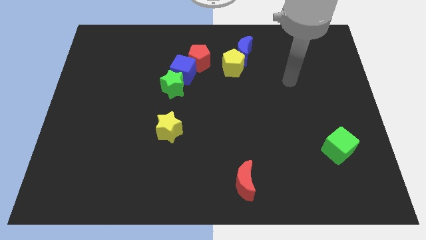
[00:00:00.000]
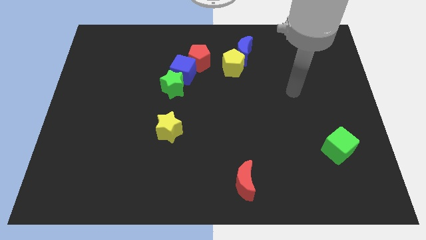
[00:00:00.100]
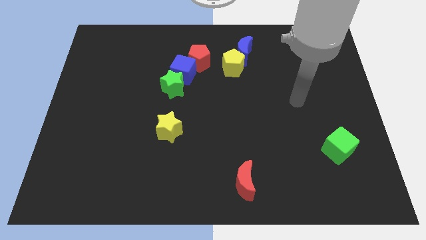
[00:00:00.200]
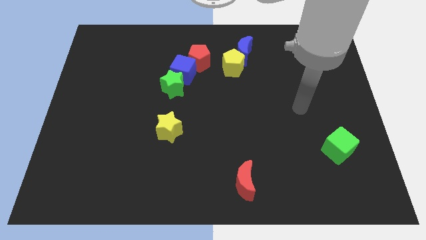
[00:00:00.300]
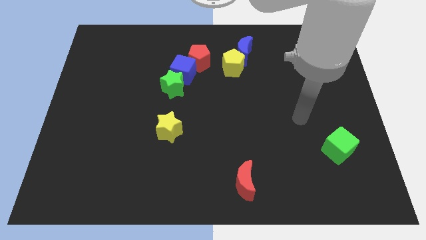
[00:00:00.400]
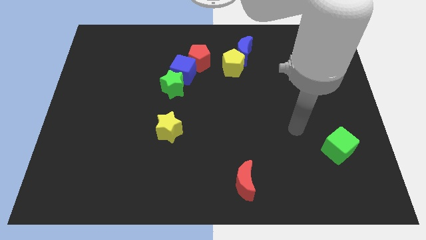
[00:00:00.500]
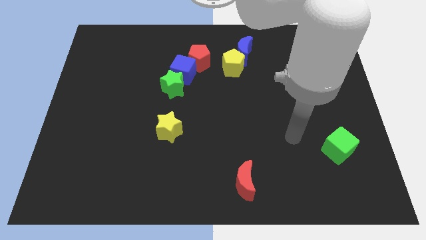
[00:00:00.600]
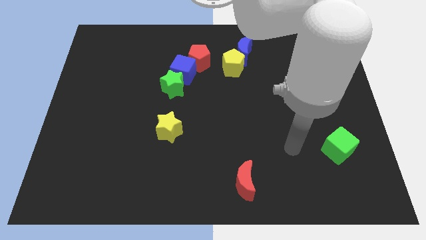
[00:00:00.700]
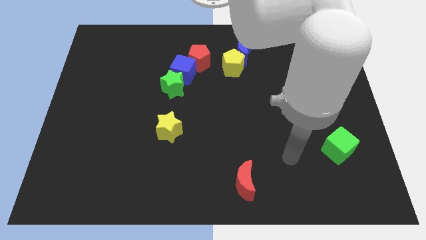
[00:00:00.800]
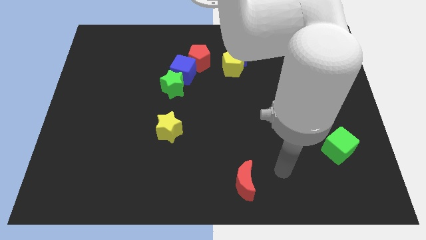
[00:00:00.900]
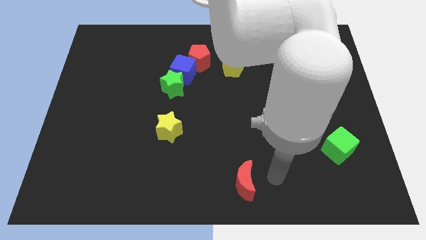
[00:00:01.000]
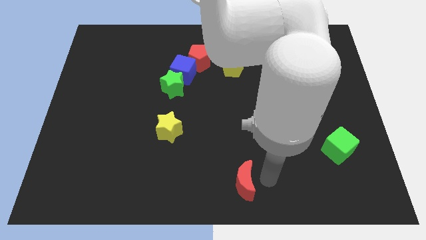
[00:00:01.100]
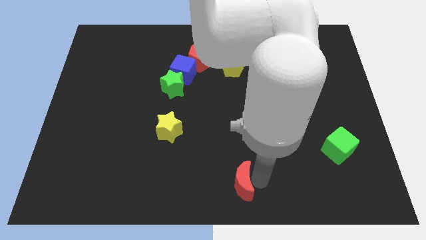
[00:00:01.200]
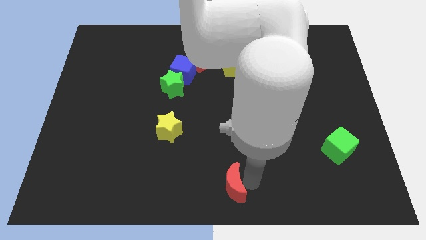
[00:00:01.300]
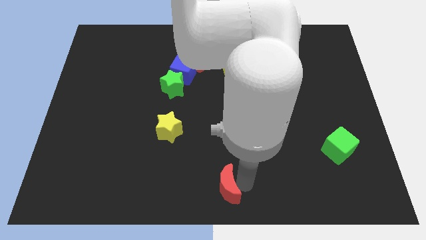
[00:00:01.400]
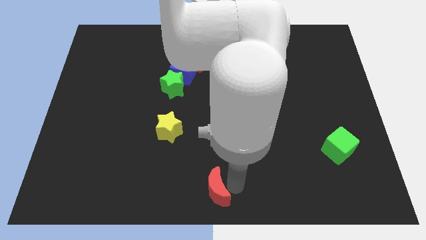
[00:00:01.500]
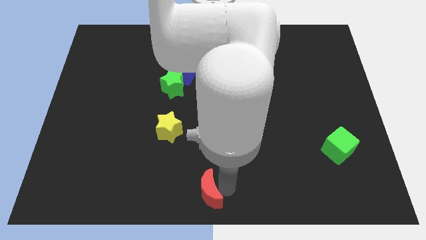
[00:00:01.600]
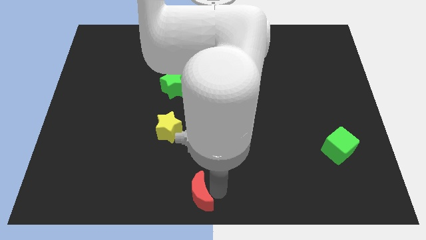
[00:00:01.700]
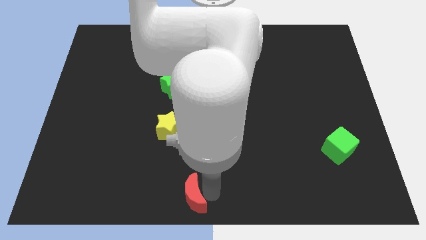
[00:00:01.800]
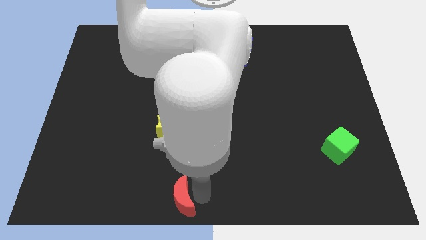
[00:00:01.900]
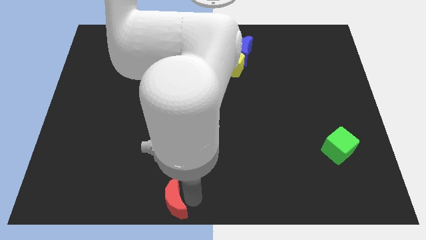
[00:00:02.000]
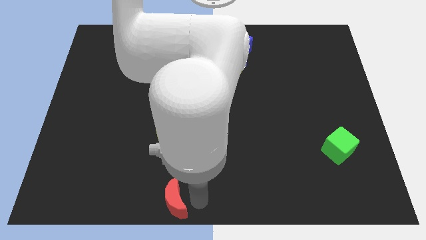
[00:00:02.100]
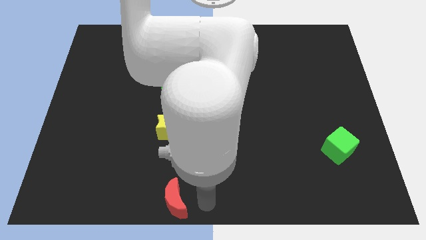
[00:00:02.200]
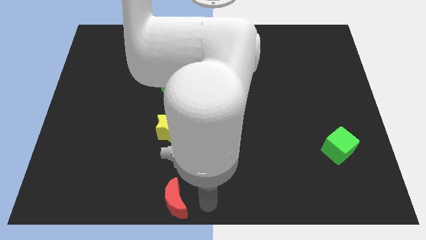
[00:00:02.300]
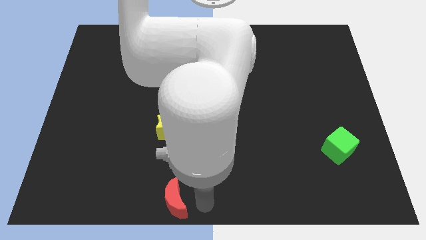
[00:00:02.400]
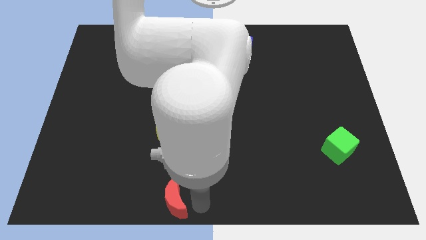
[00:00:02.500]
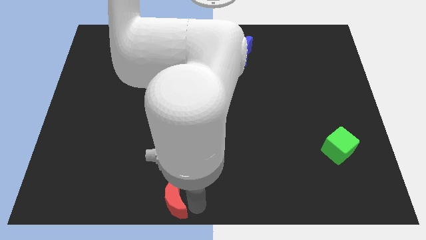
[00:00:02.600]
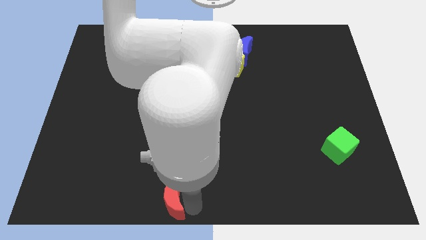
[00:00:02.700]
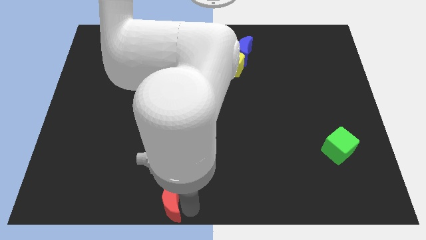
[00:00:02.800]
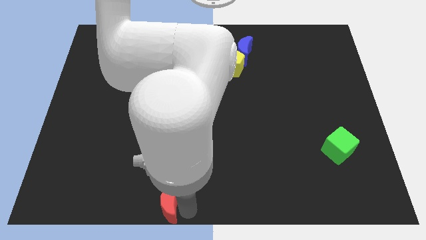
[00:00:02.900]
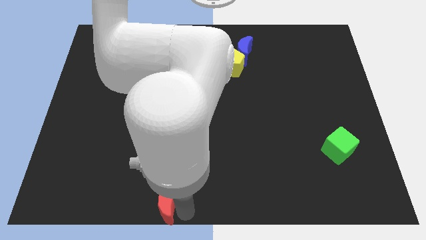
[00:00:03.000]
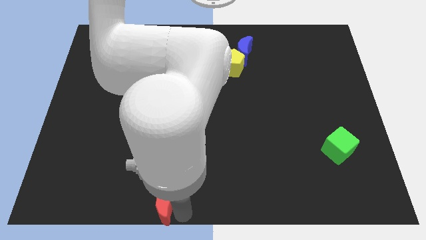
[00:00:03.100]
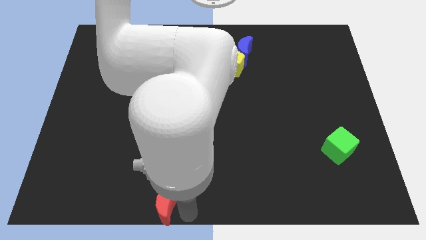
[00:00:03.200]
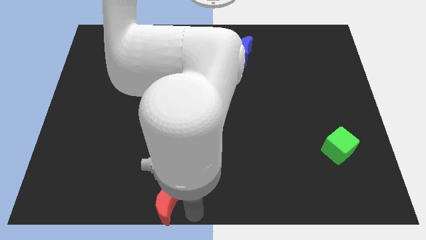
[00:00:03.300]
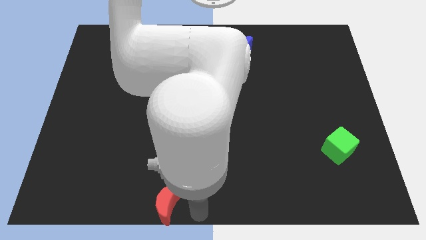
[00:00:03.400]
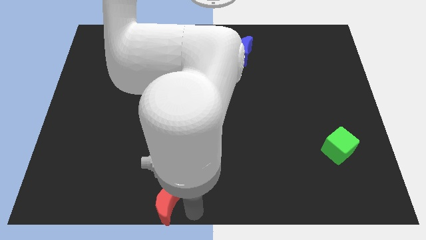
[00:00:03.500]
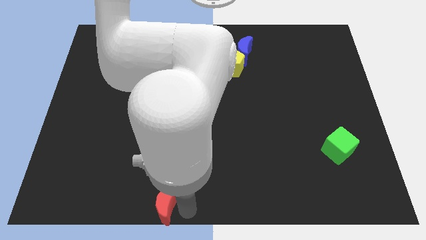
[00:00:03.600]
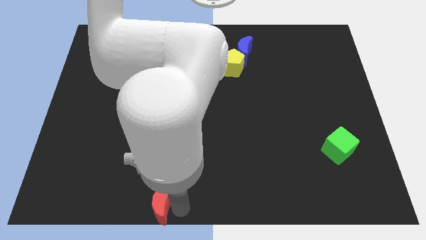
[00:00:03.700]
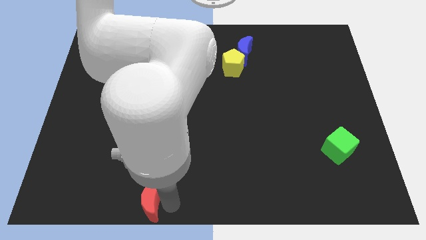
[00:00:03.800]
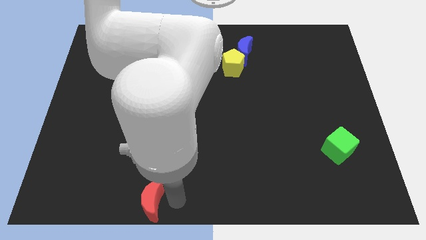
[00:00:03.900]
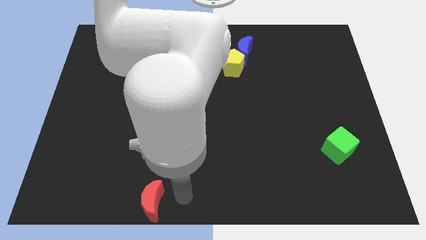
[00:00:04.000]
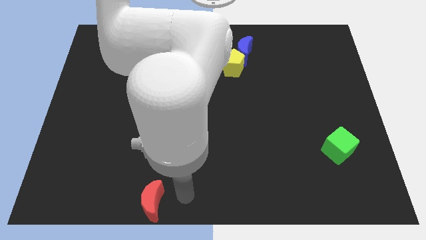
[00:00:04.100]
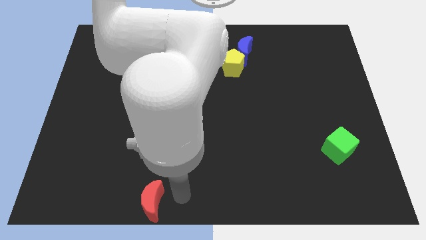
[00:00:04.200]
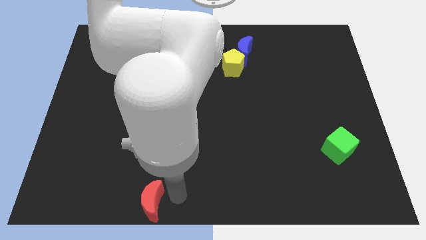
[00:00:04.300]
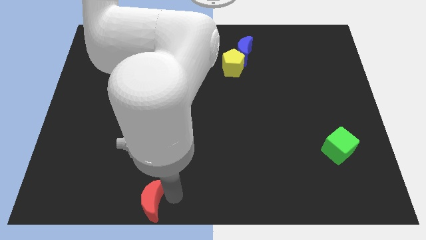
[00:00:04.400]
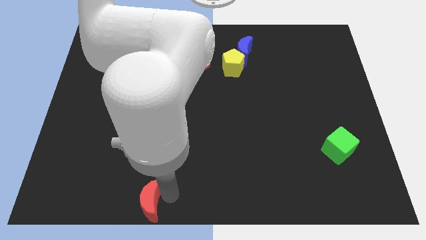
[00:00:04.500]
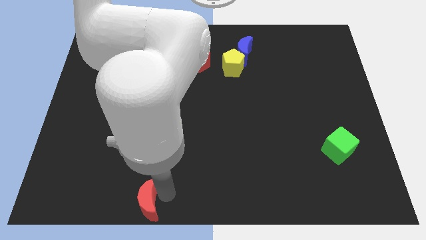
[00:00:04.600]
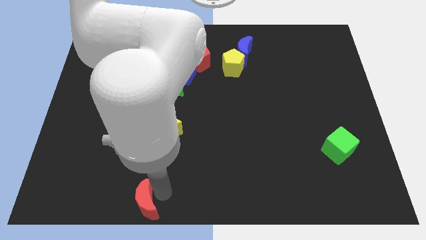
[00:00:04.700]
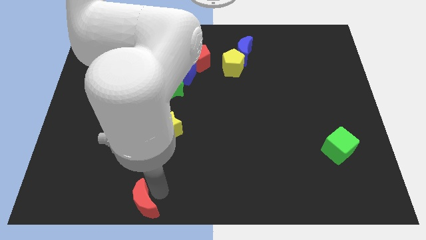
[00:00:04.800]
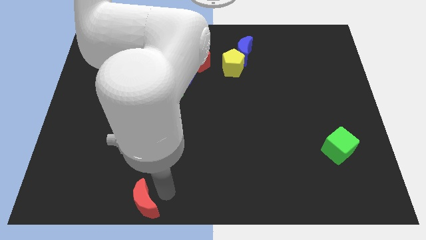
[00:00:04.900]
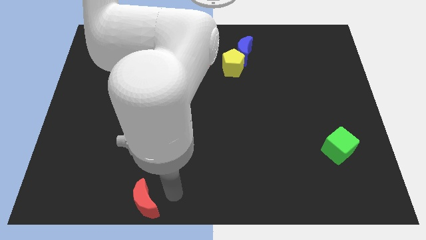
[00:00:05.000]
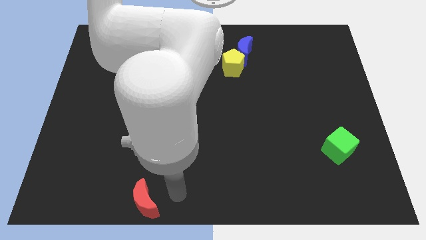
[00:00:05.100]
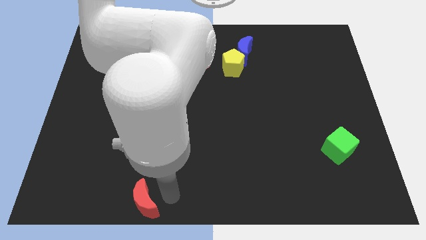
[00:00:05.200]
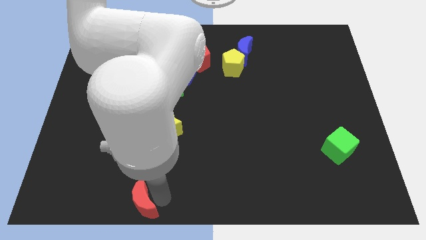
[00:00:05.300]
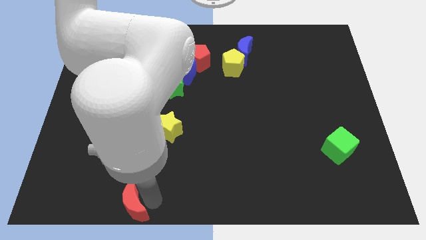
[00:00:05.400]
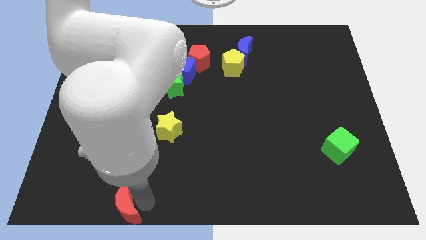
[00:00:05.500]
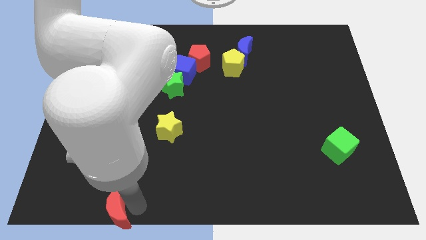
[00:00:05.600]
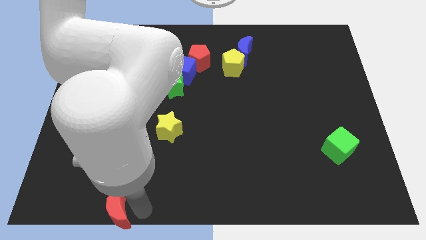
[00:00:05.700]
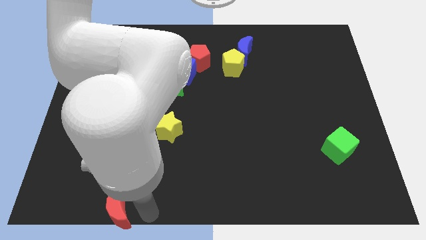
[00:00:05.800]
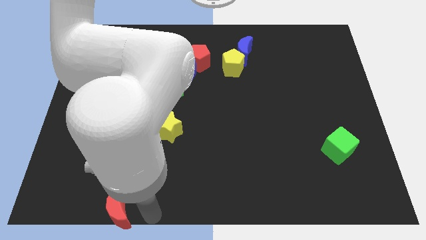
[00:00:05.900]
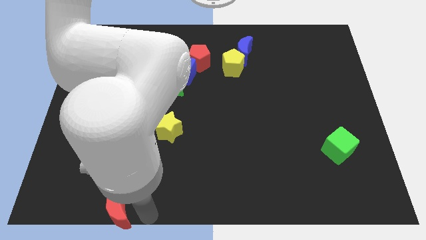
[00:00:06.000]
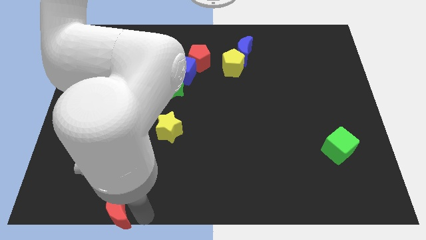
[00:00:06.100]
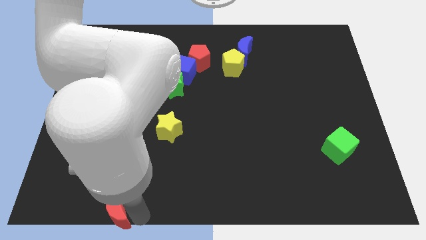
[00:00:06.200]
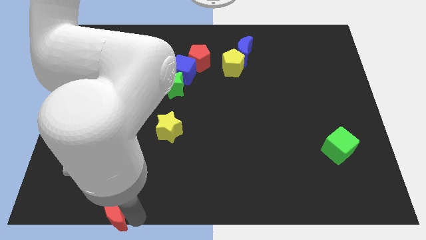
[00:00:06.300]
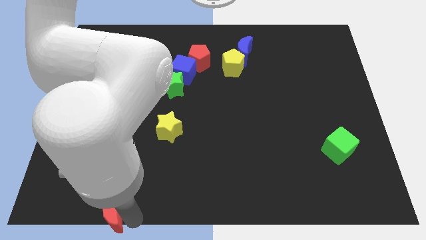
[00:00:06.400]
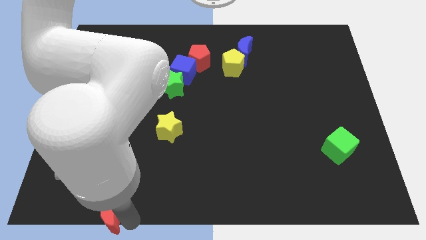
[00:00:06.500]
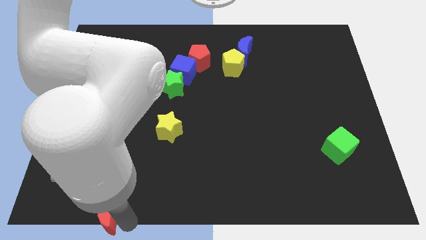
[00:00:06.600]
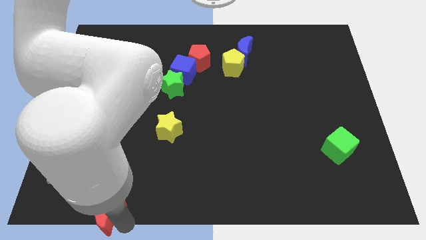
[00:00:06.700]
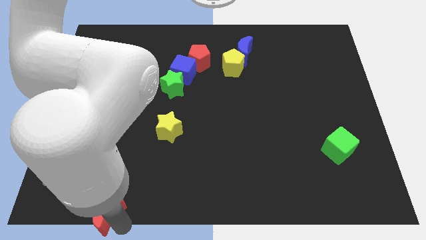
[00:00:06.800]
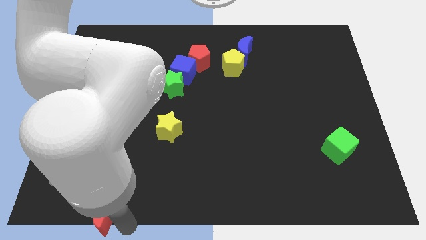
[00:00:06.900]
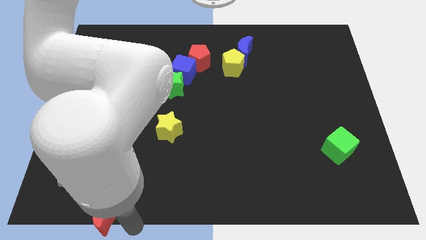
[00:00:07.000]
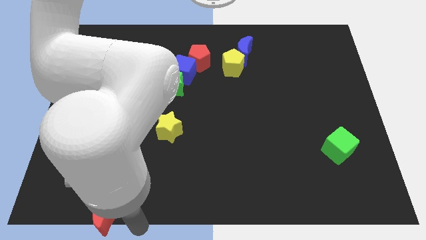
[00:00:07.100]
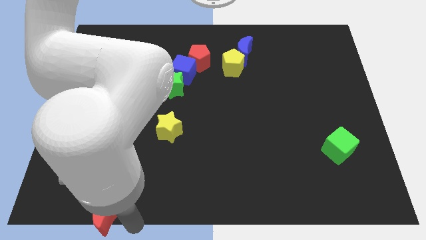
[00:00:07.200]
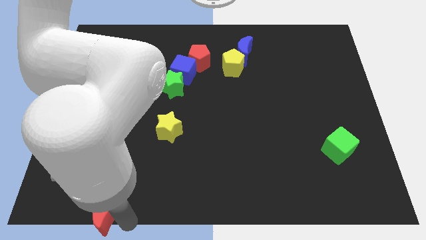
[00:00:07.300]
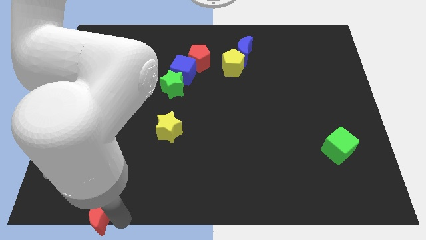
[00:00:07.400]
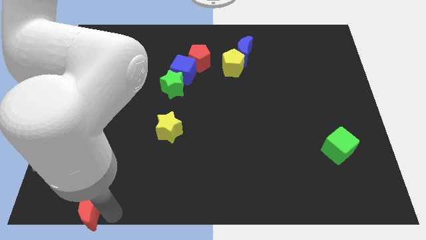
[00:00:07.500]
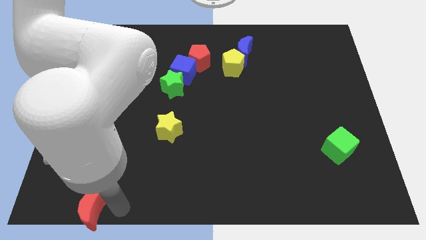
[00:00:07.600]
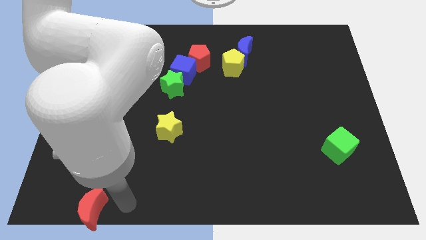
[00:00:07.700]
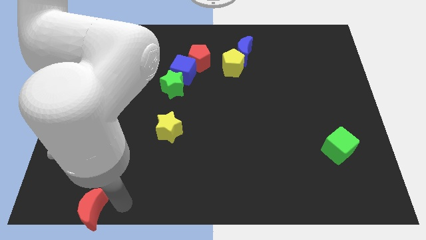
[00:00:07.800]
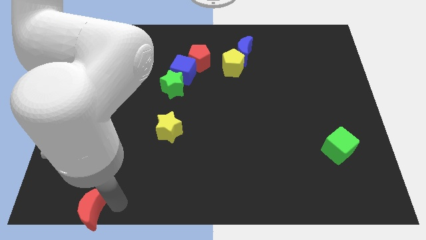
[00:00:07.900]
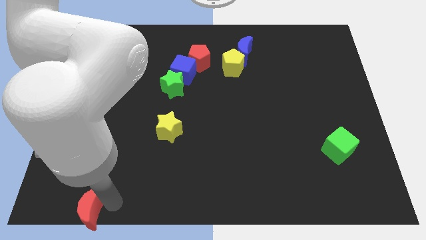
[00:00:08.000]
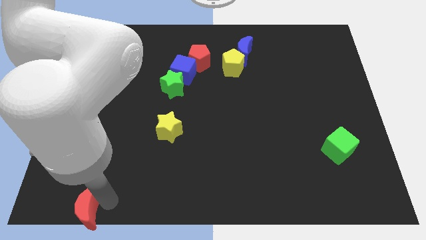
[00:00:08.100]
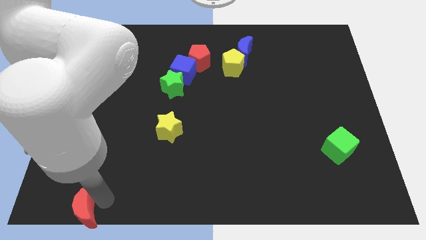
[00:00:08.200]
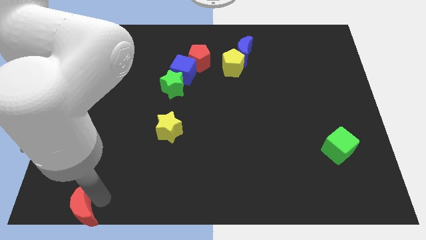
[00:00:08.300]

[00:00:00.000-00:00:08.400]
push the red moon to the bottom left corner
